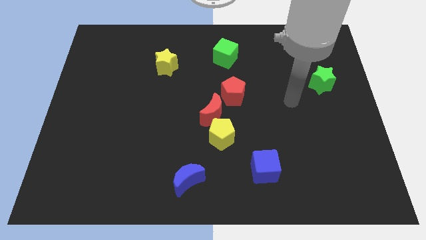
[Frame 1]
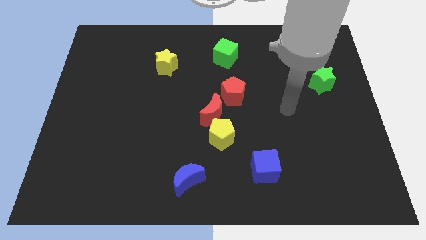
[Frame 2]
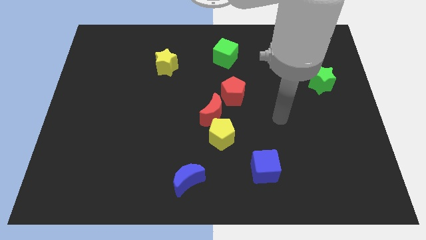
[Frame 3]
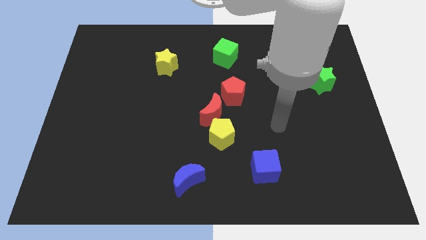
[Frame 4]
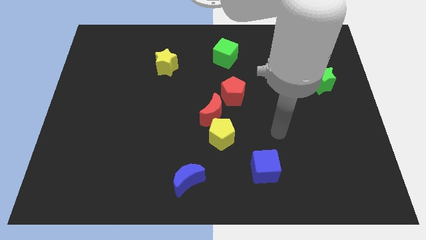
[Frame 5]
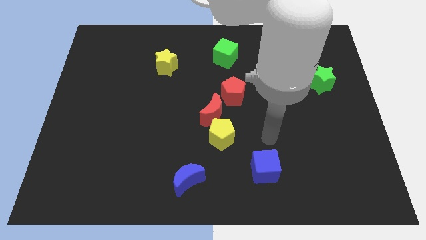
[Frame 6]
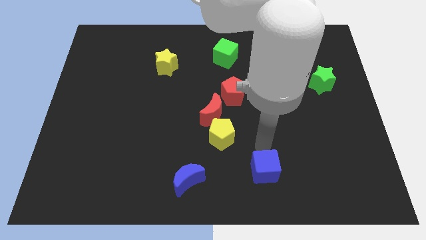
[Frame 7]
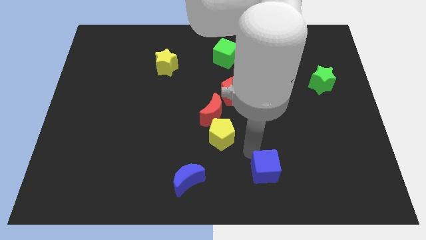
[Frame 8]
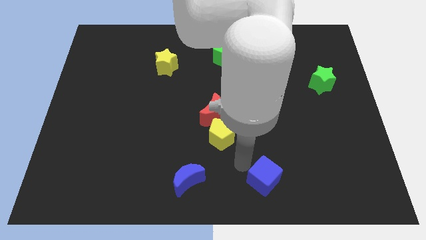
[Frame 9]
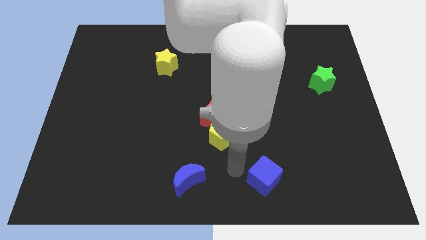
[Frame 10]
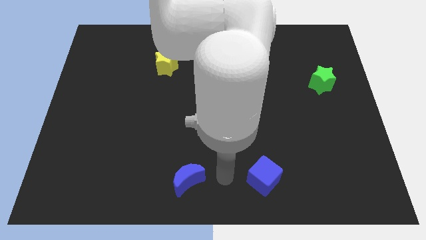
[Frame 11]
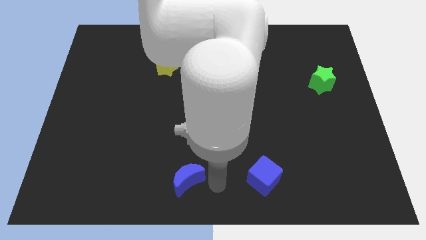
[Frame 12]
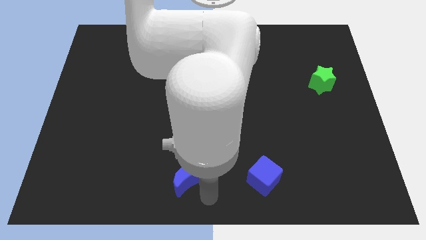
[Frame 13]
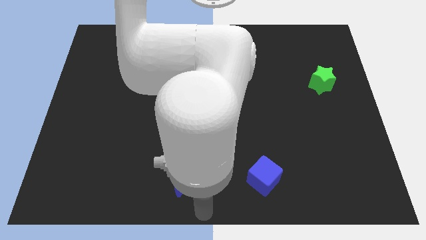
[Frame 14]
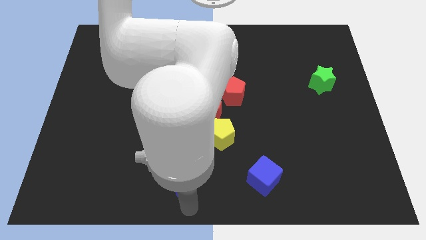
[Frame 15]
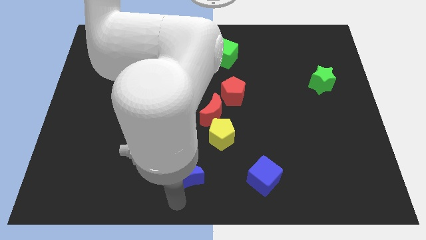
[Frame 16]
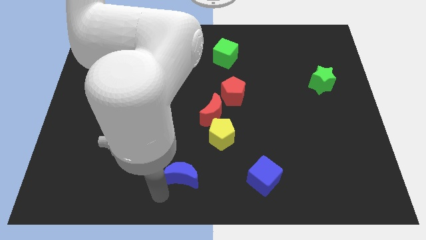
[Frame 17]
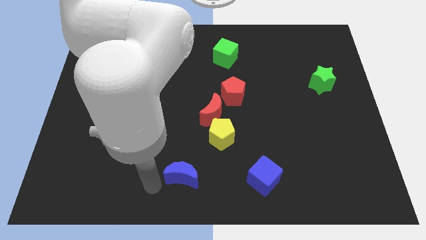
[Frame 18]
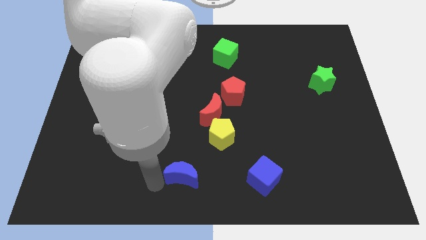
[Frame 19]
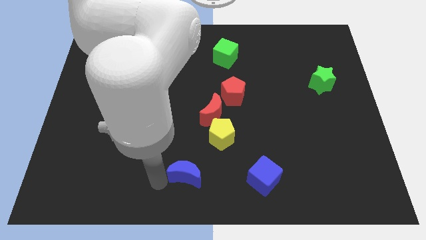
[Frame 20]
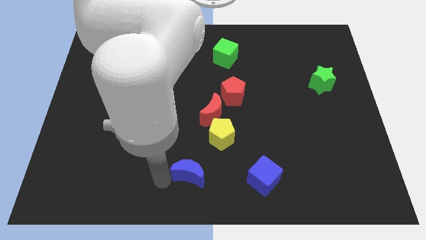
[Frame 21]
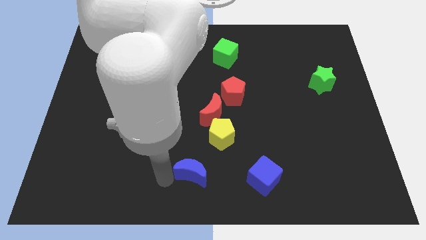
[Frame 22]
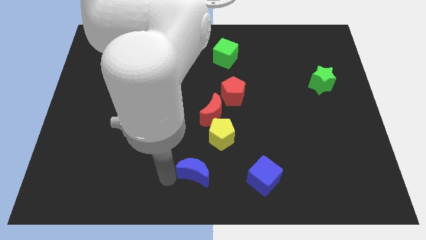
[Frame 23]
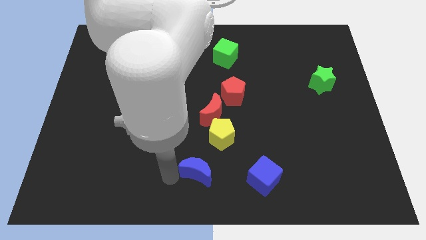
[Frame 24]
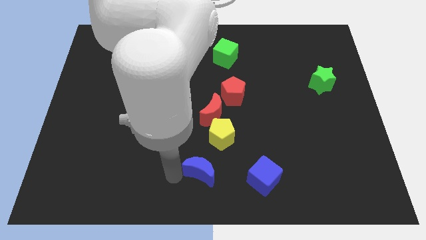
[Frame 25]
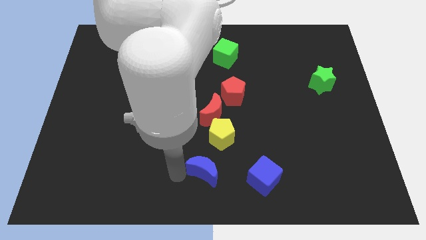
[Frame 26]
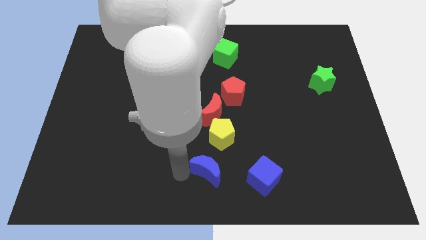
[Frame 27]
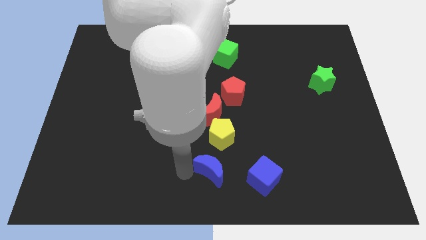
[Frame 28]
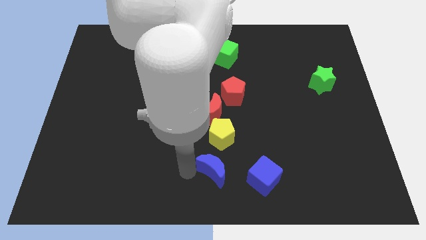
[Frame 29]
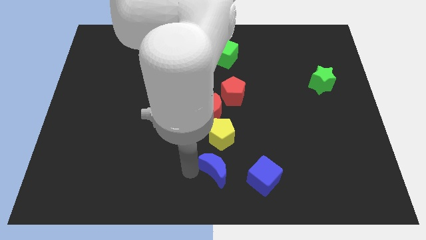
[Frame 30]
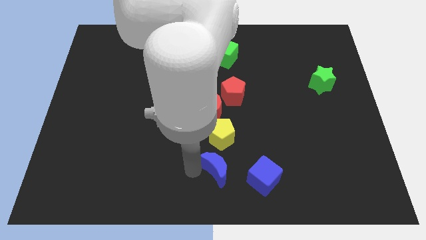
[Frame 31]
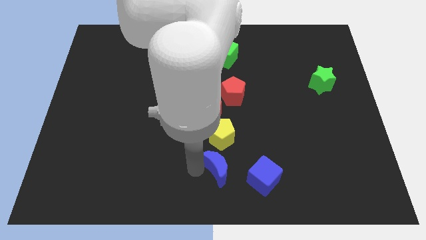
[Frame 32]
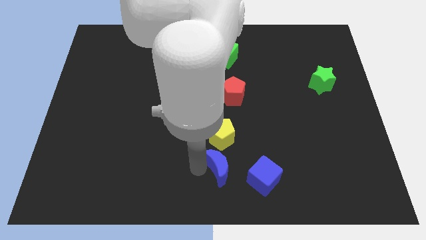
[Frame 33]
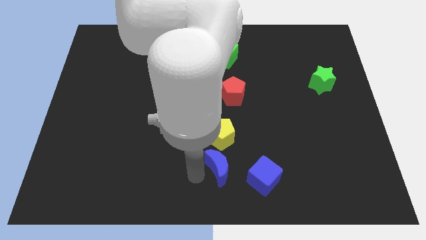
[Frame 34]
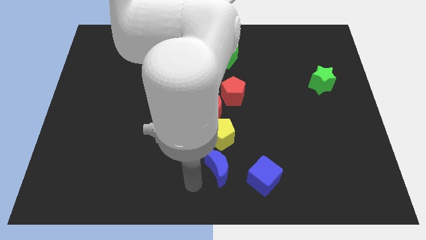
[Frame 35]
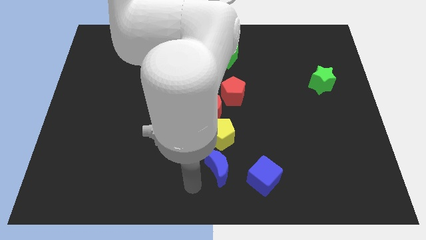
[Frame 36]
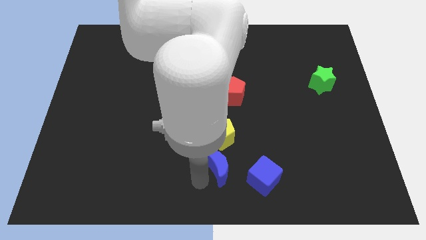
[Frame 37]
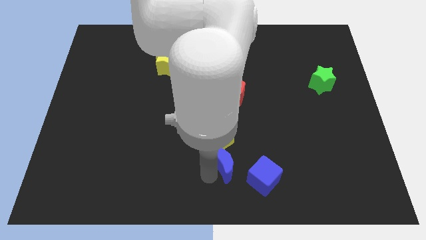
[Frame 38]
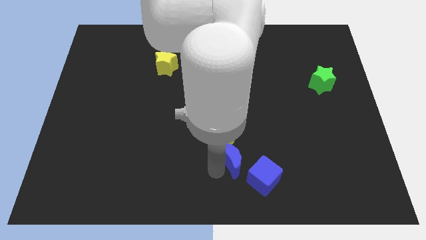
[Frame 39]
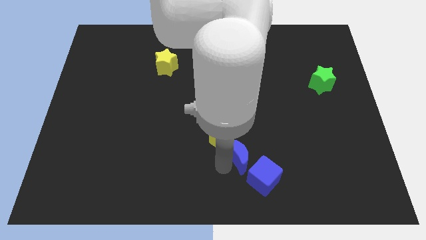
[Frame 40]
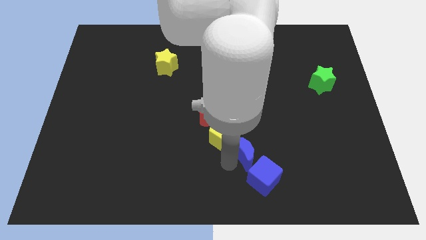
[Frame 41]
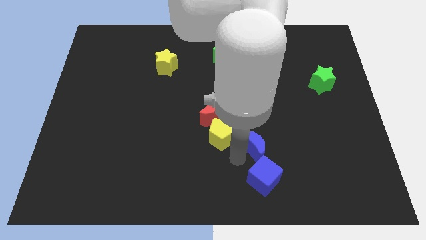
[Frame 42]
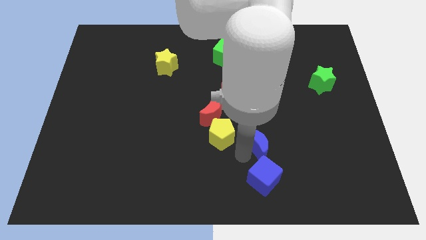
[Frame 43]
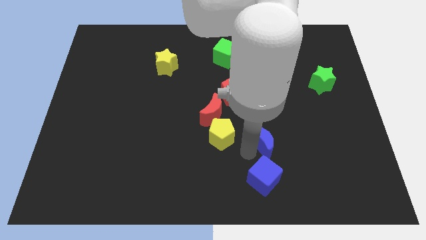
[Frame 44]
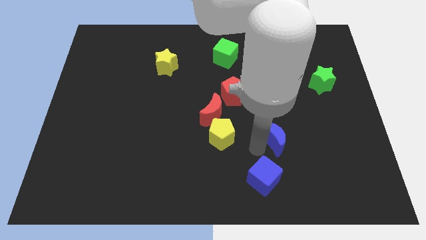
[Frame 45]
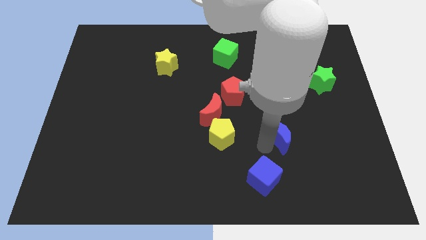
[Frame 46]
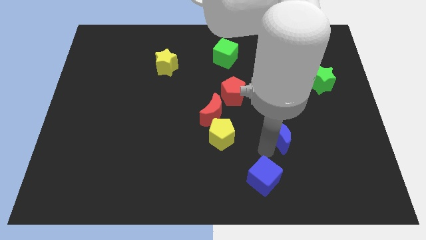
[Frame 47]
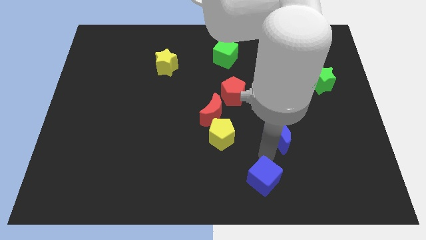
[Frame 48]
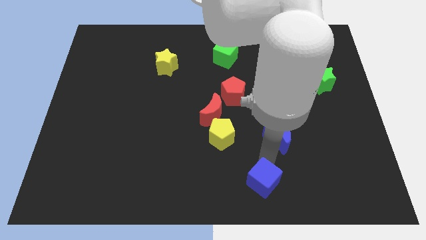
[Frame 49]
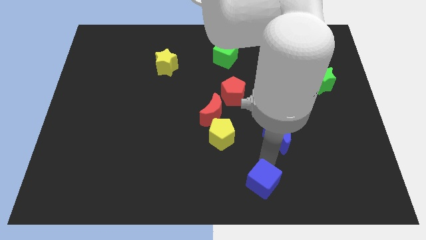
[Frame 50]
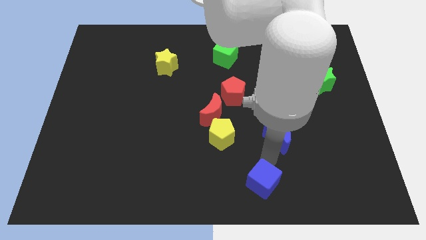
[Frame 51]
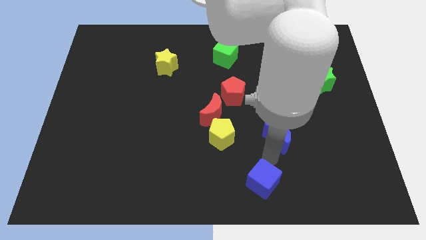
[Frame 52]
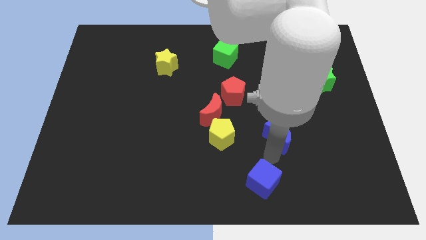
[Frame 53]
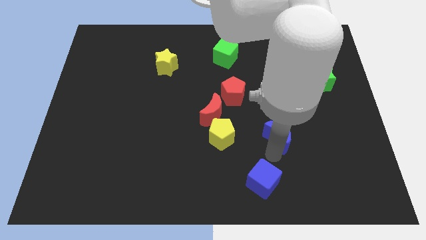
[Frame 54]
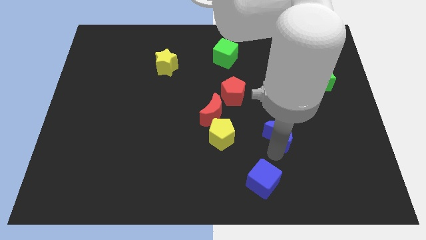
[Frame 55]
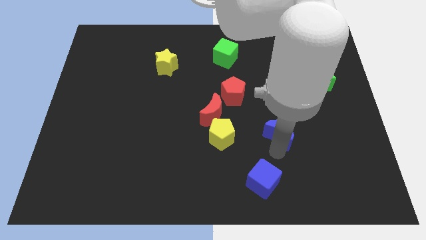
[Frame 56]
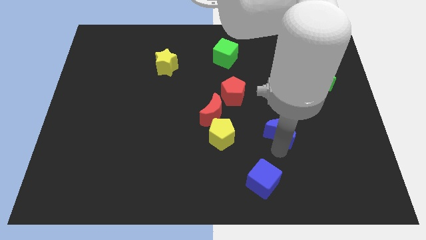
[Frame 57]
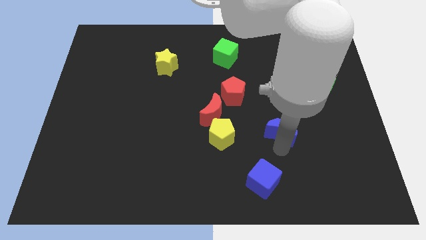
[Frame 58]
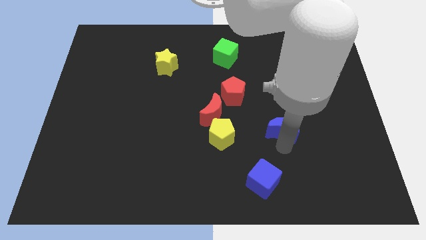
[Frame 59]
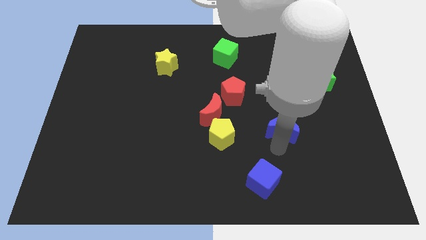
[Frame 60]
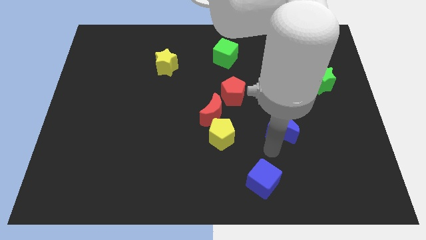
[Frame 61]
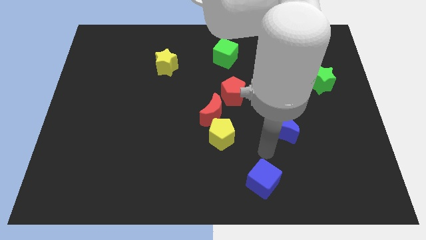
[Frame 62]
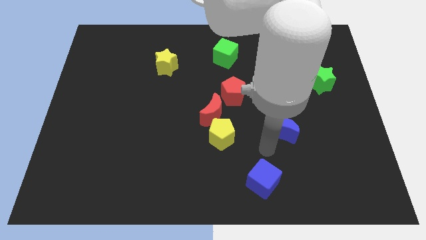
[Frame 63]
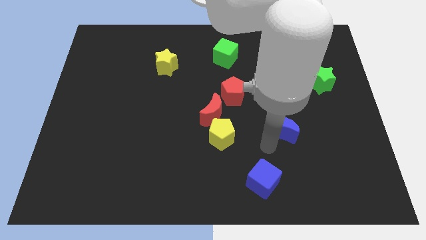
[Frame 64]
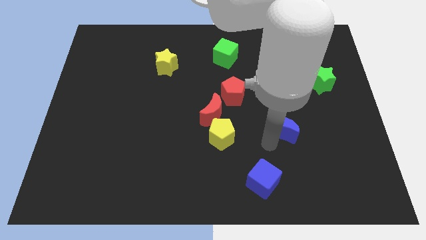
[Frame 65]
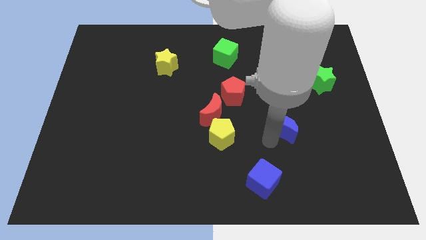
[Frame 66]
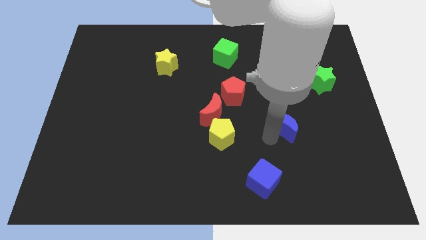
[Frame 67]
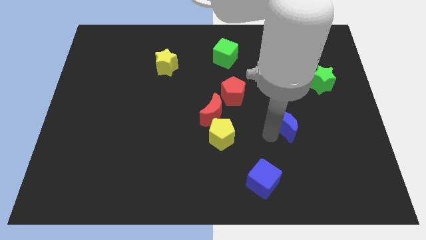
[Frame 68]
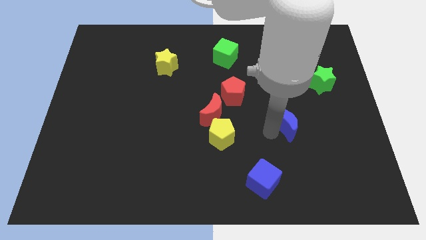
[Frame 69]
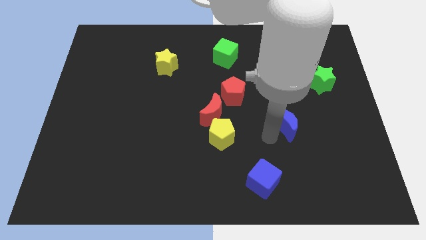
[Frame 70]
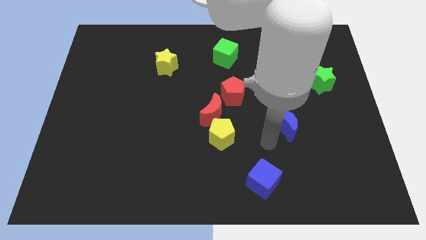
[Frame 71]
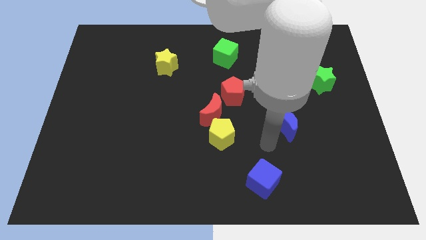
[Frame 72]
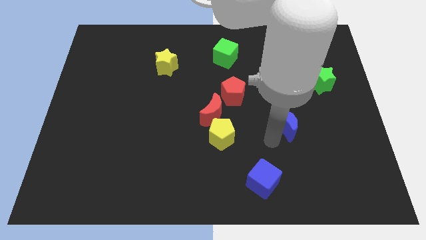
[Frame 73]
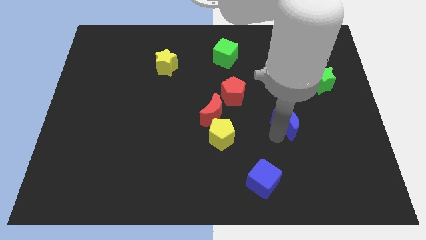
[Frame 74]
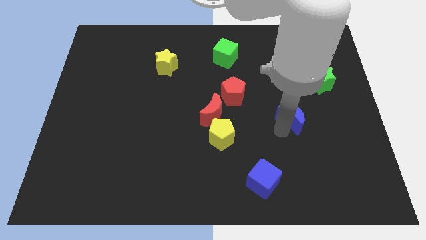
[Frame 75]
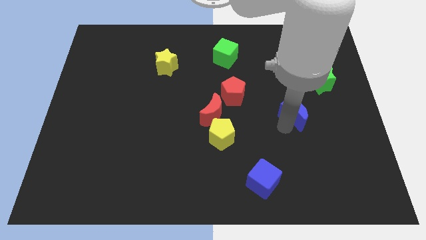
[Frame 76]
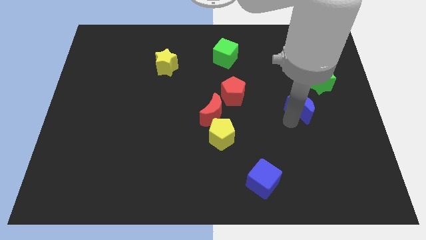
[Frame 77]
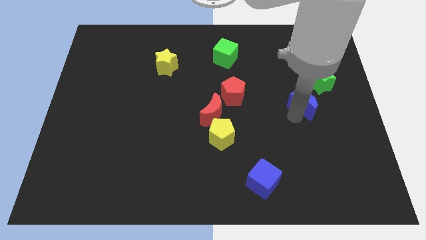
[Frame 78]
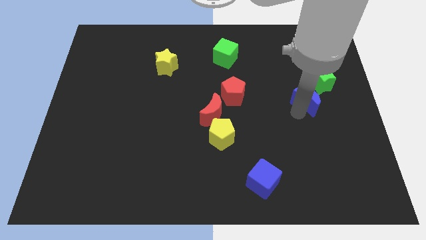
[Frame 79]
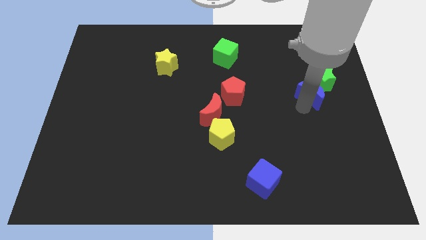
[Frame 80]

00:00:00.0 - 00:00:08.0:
put the blue moon next to the green star

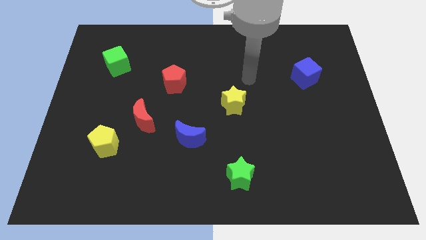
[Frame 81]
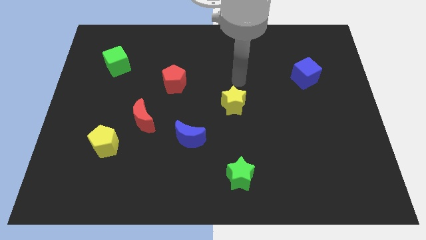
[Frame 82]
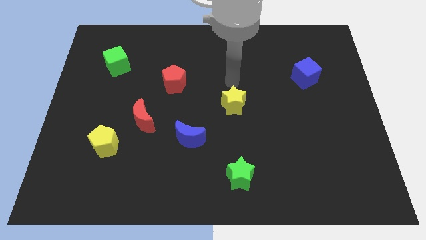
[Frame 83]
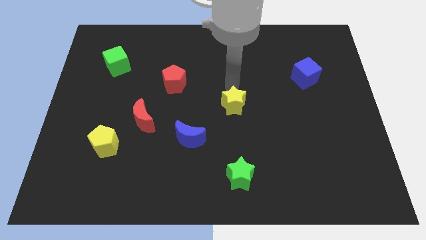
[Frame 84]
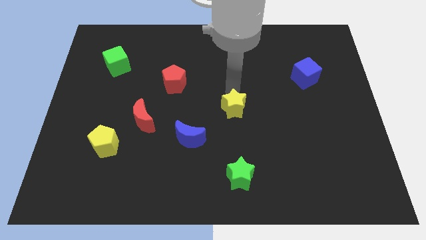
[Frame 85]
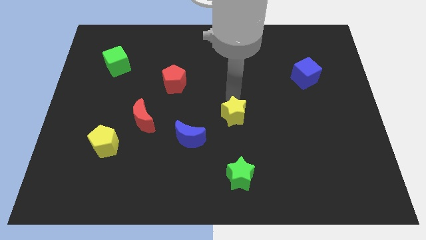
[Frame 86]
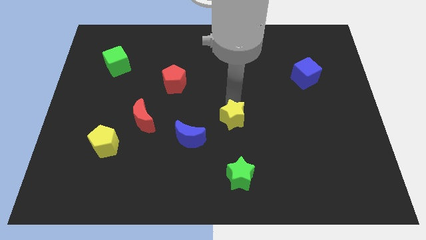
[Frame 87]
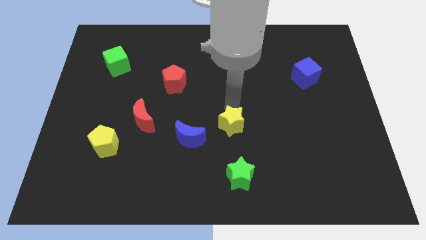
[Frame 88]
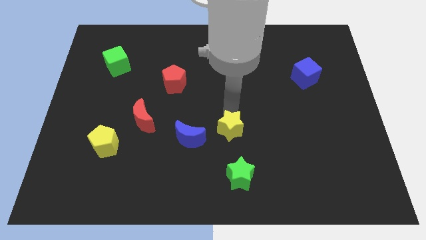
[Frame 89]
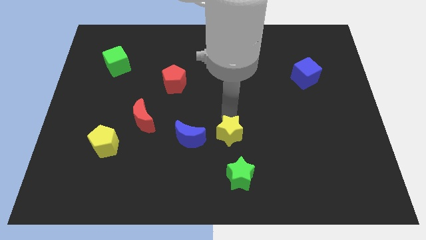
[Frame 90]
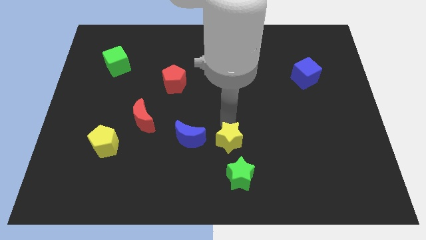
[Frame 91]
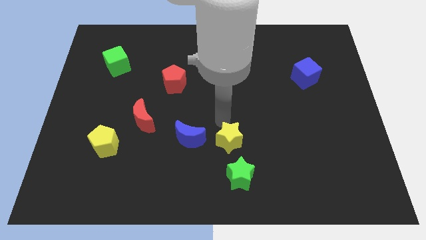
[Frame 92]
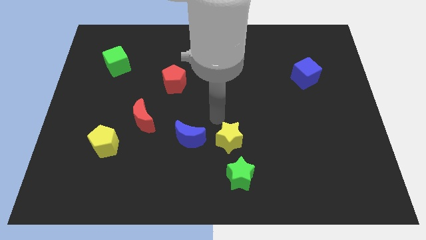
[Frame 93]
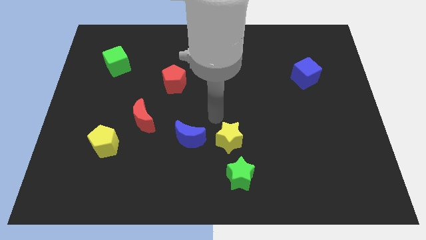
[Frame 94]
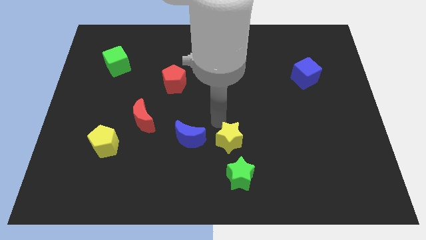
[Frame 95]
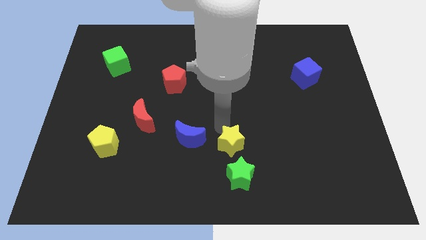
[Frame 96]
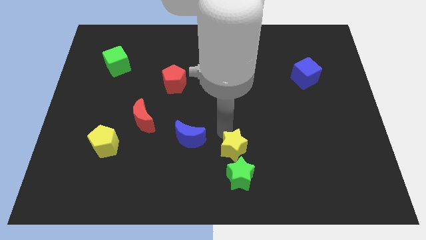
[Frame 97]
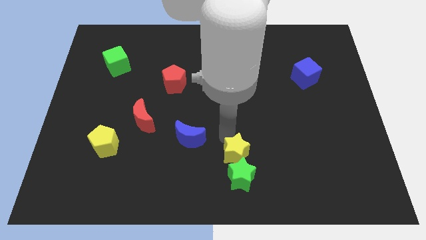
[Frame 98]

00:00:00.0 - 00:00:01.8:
slide the yellow star to the green star
